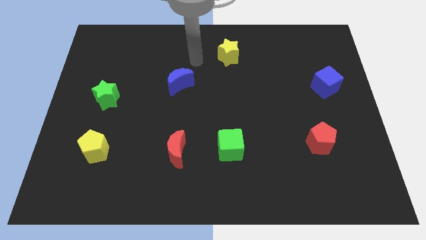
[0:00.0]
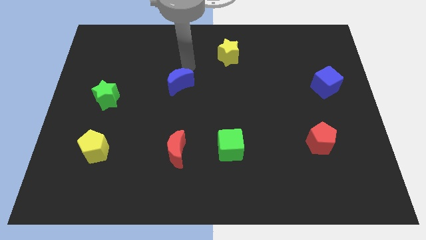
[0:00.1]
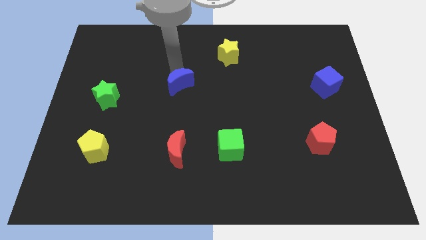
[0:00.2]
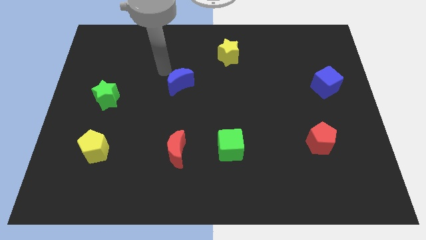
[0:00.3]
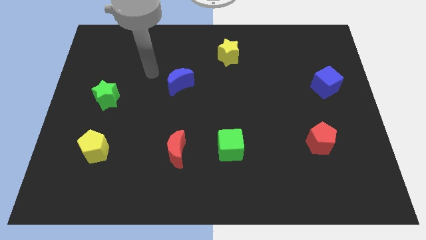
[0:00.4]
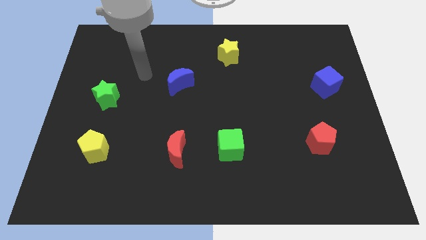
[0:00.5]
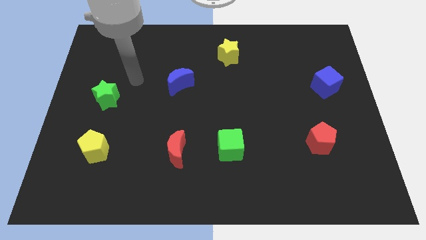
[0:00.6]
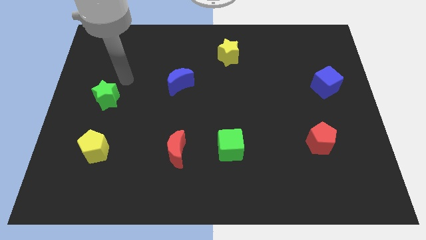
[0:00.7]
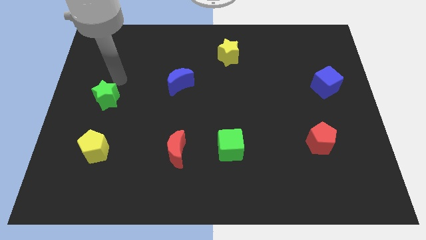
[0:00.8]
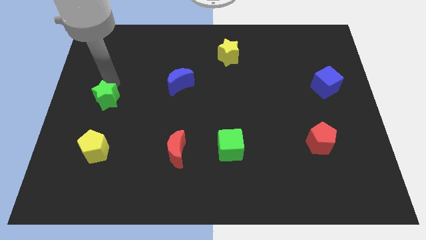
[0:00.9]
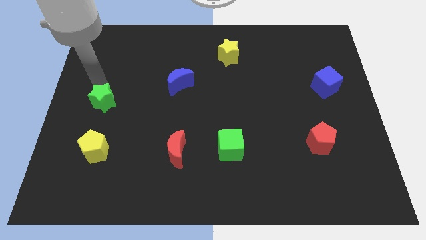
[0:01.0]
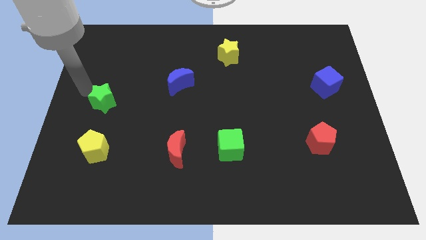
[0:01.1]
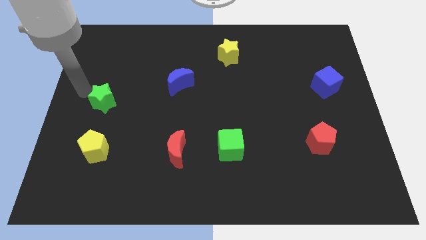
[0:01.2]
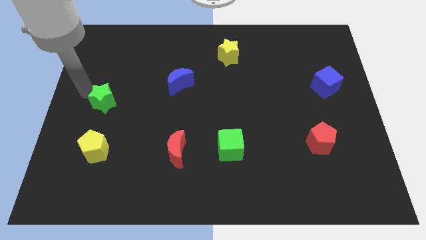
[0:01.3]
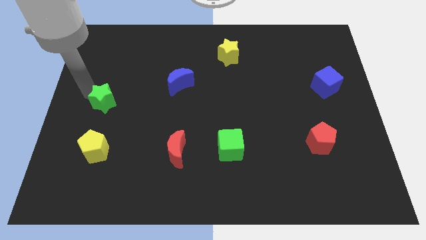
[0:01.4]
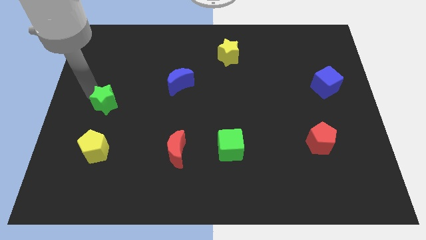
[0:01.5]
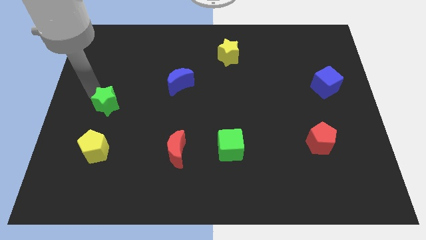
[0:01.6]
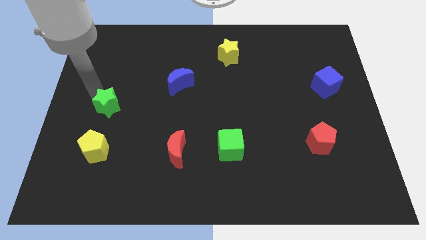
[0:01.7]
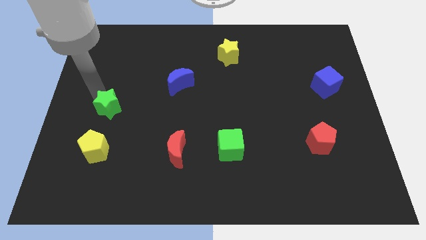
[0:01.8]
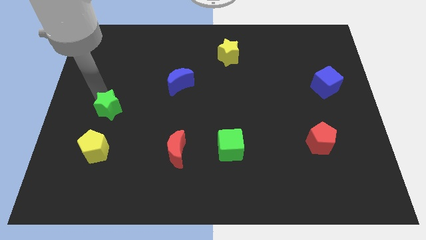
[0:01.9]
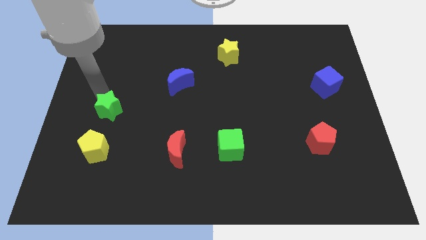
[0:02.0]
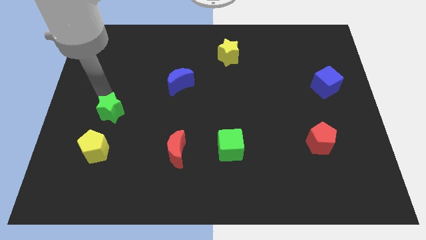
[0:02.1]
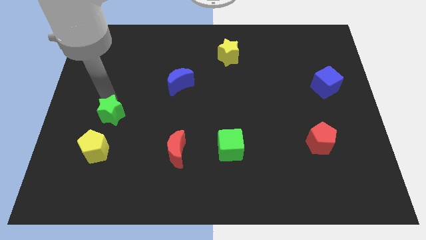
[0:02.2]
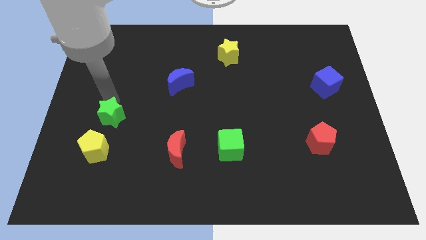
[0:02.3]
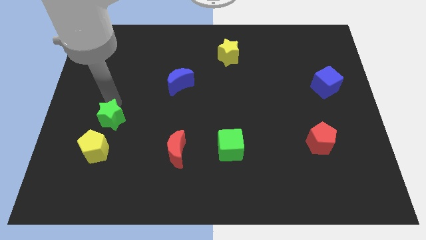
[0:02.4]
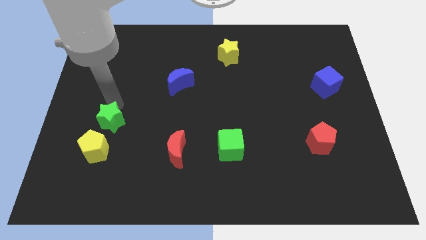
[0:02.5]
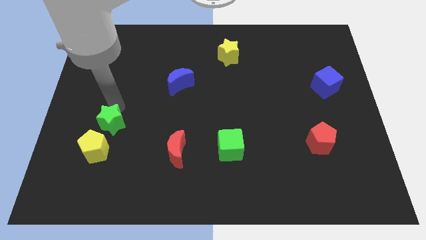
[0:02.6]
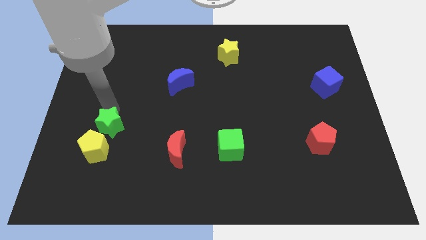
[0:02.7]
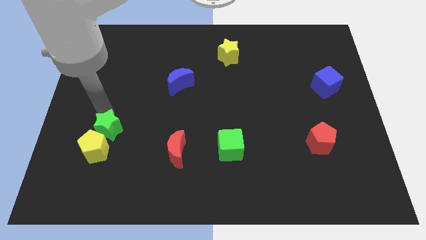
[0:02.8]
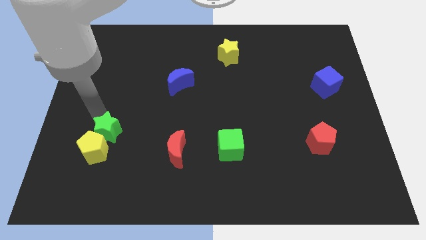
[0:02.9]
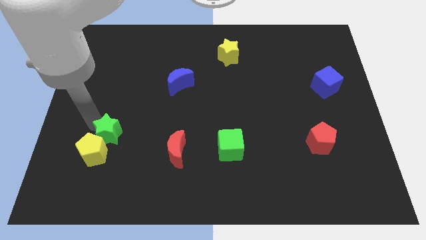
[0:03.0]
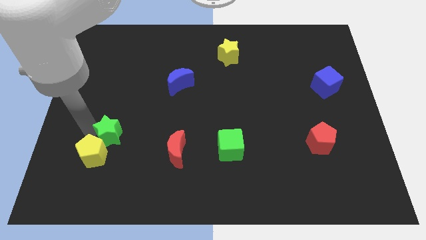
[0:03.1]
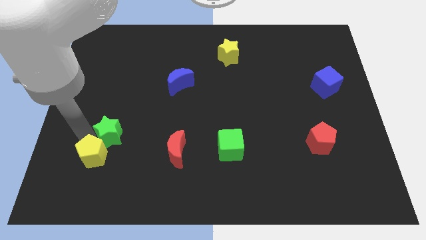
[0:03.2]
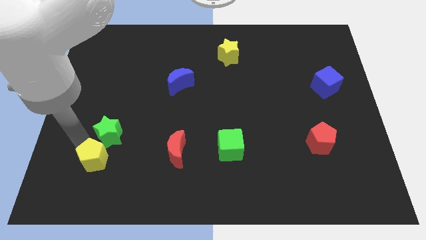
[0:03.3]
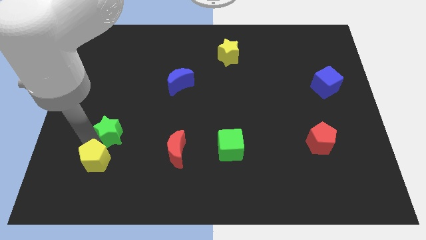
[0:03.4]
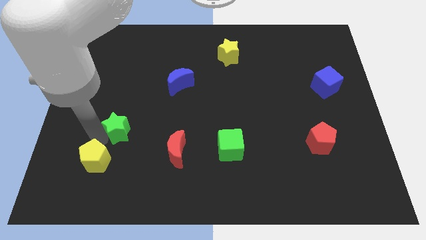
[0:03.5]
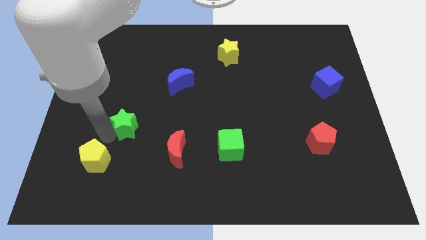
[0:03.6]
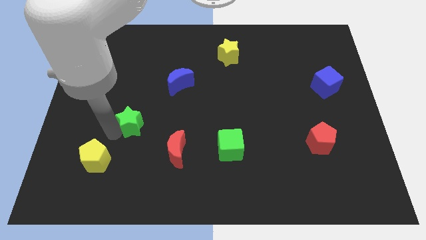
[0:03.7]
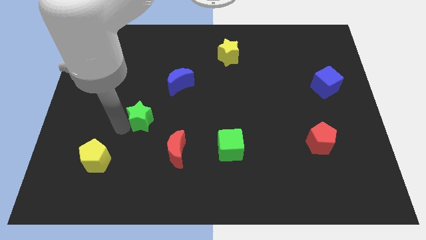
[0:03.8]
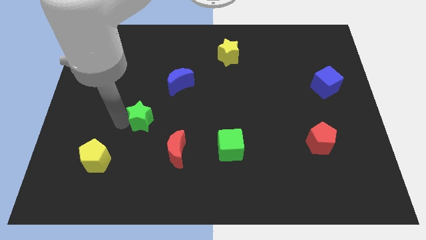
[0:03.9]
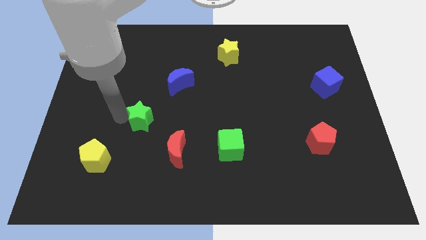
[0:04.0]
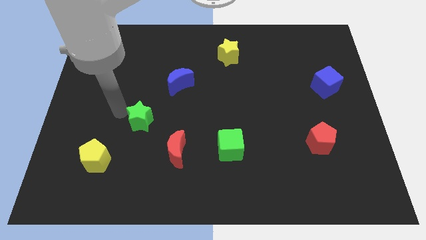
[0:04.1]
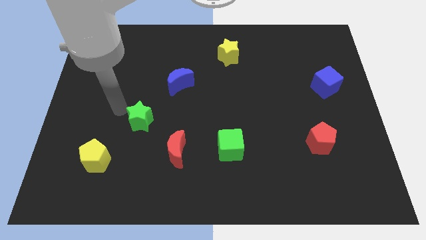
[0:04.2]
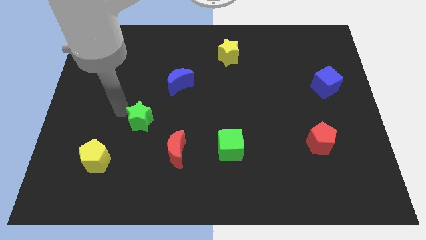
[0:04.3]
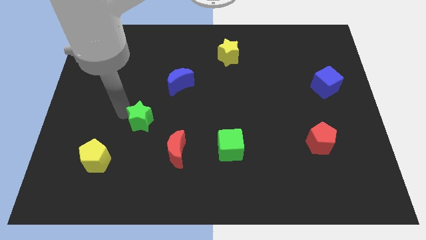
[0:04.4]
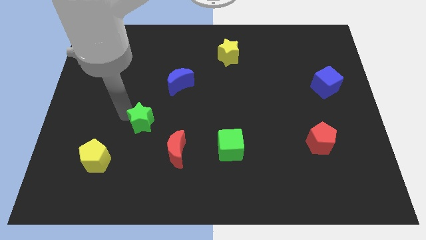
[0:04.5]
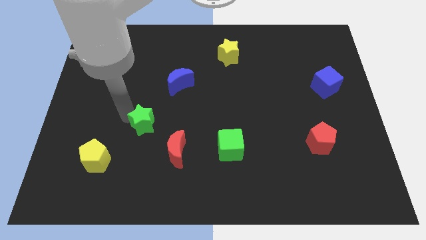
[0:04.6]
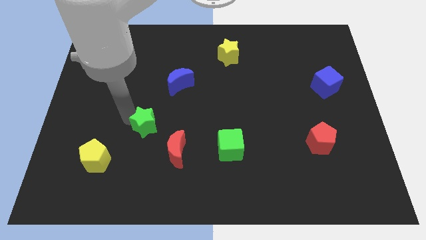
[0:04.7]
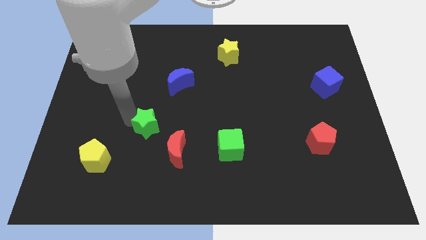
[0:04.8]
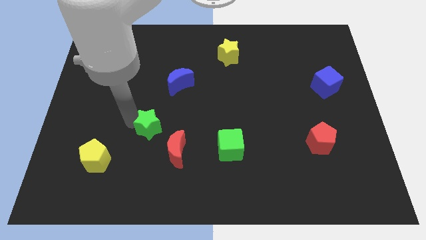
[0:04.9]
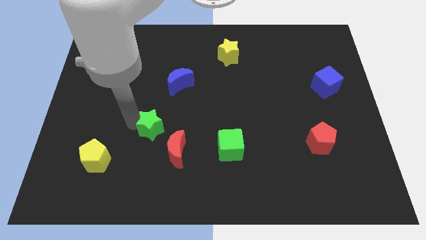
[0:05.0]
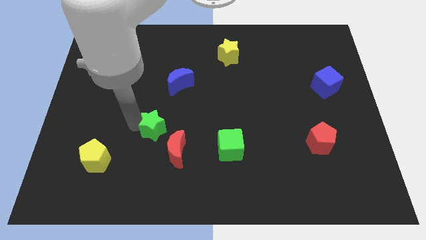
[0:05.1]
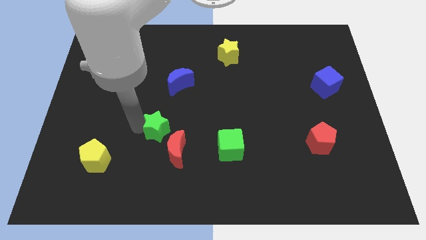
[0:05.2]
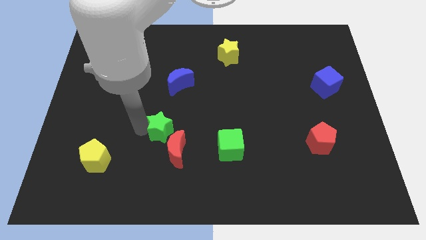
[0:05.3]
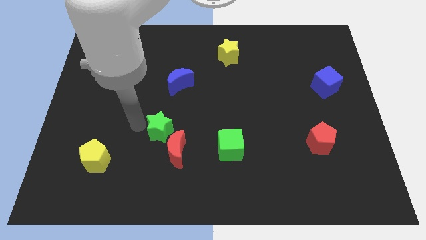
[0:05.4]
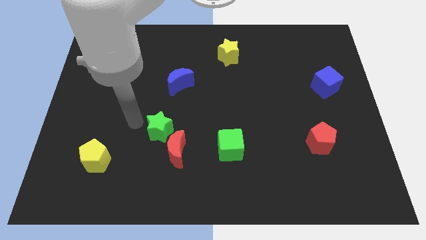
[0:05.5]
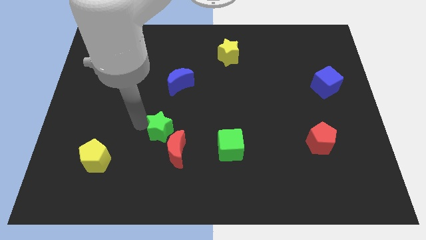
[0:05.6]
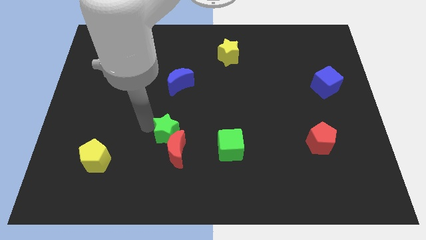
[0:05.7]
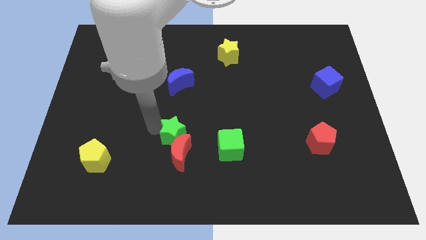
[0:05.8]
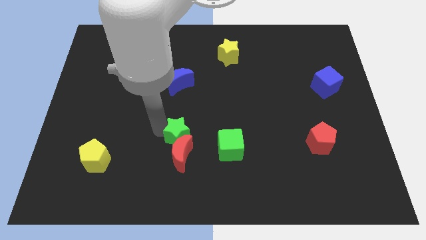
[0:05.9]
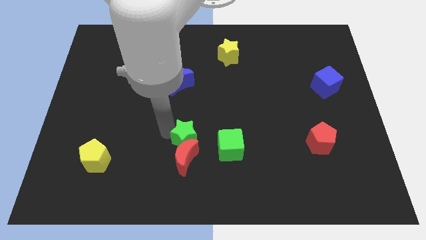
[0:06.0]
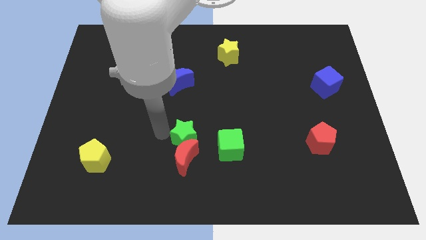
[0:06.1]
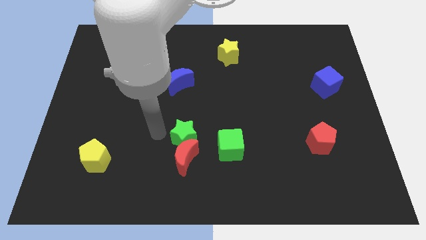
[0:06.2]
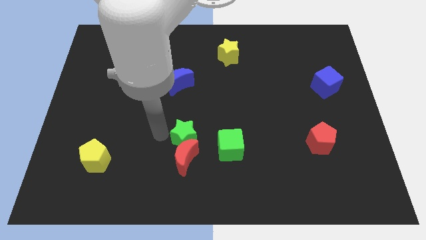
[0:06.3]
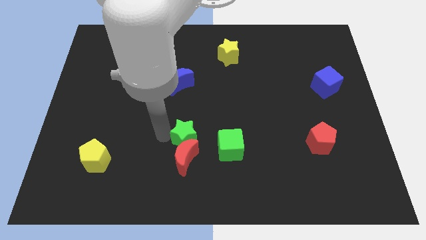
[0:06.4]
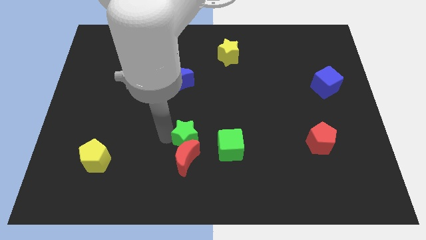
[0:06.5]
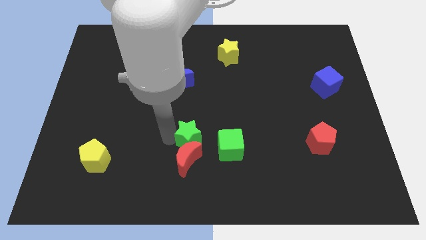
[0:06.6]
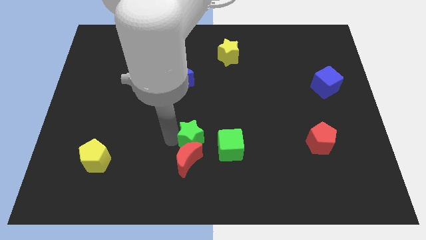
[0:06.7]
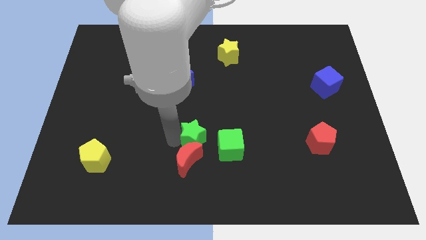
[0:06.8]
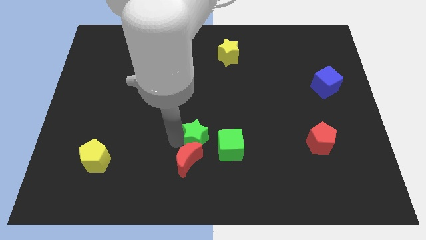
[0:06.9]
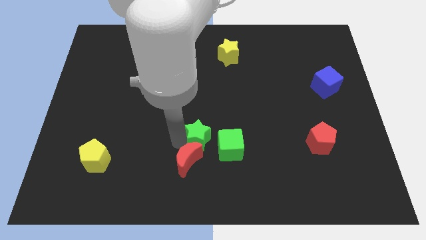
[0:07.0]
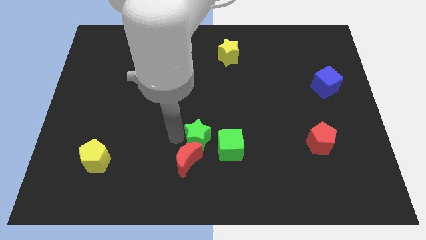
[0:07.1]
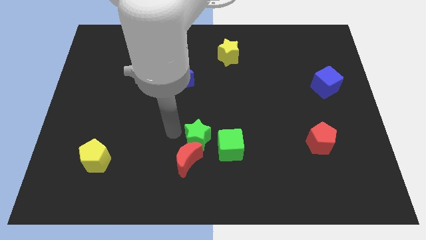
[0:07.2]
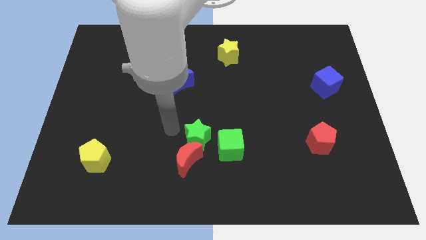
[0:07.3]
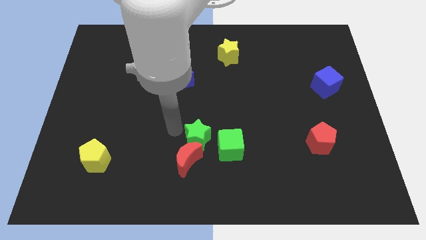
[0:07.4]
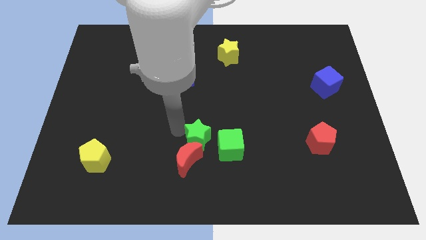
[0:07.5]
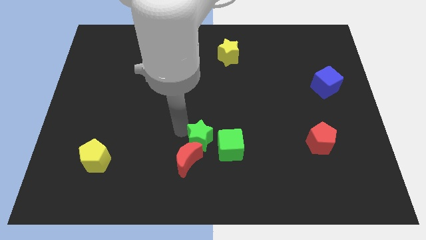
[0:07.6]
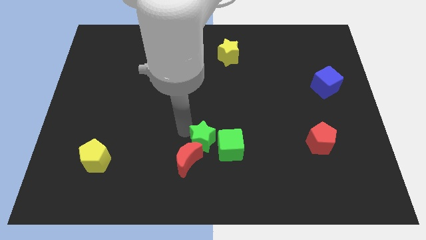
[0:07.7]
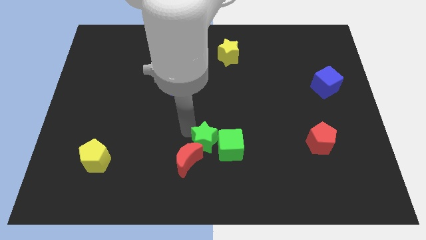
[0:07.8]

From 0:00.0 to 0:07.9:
push the green star next to the green cube

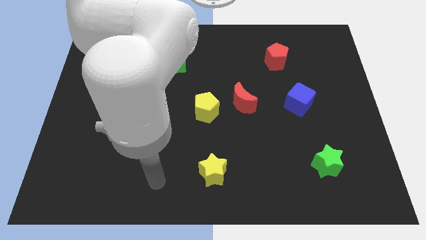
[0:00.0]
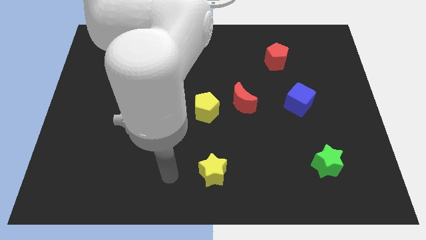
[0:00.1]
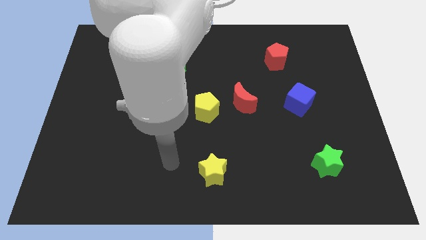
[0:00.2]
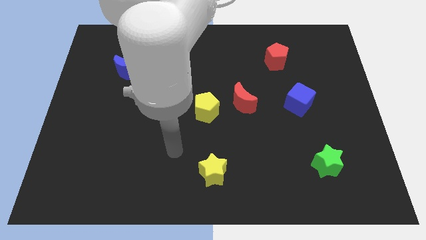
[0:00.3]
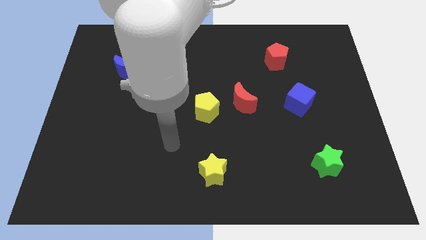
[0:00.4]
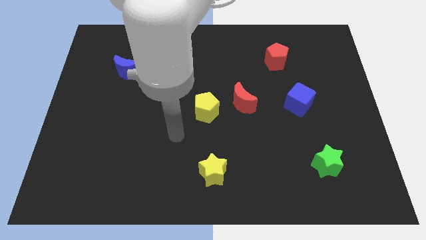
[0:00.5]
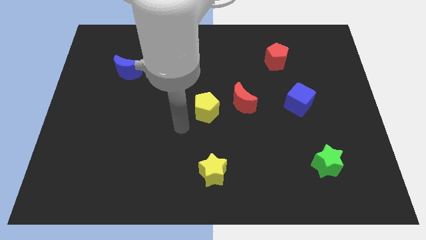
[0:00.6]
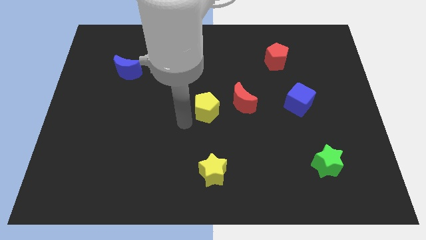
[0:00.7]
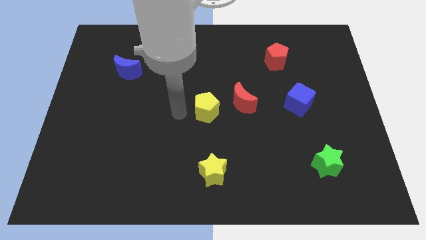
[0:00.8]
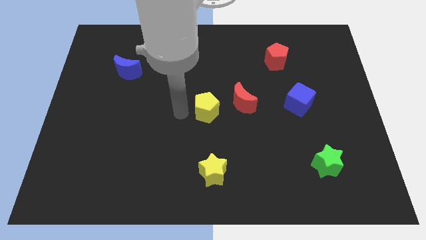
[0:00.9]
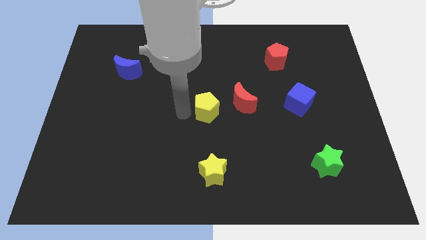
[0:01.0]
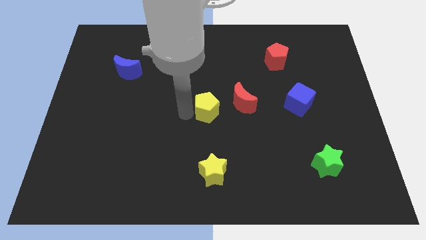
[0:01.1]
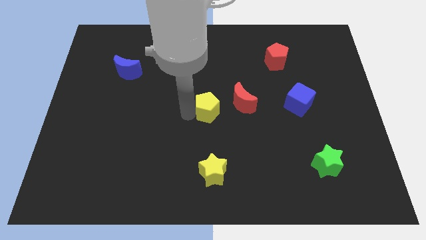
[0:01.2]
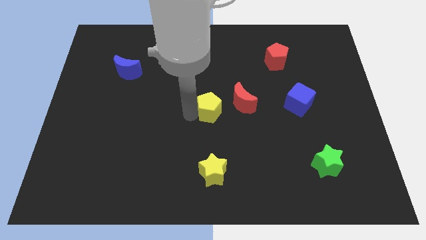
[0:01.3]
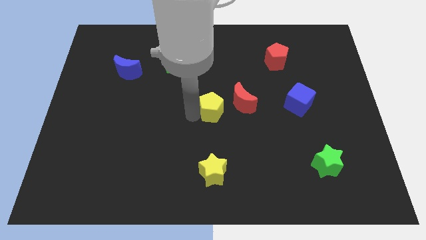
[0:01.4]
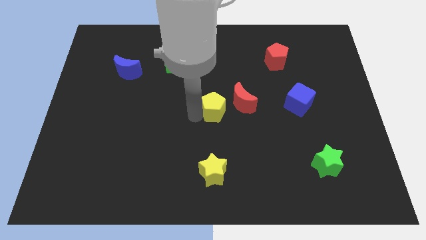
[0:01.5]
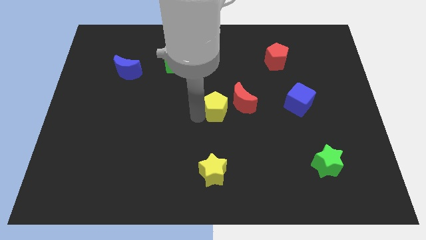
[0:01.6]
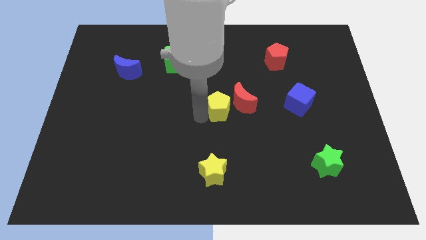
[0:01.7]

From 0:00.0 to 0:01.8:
put the yellow pentagon next to the red moon
